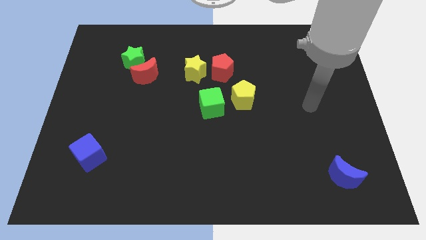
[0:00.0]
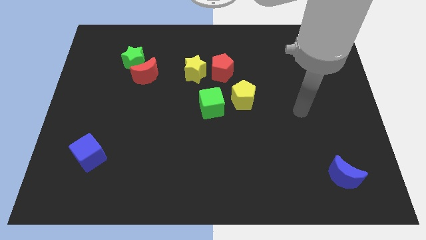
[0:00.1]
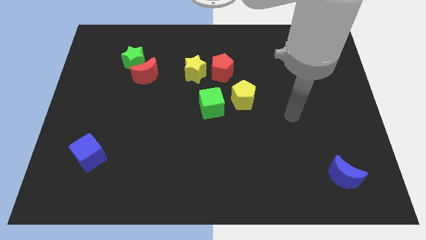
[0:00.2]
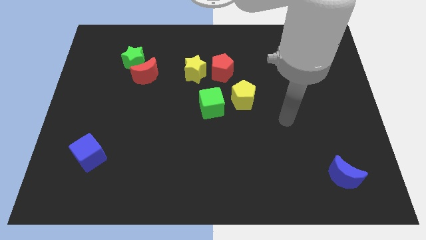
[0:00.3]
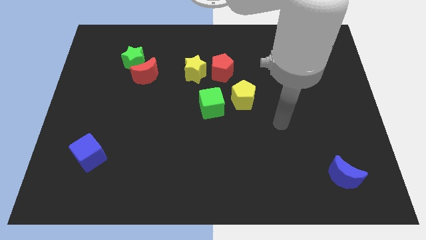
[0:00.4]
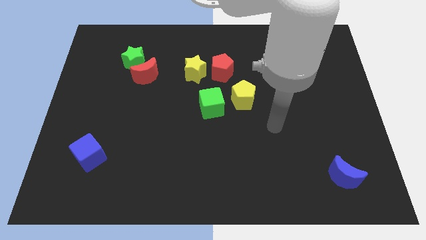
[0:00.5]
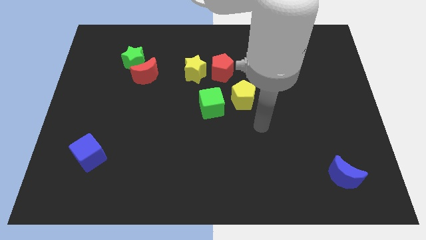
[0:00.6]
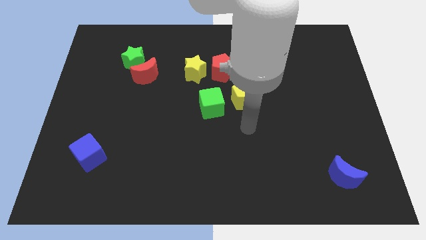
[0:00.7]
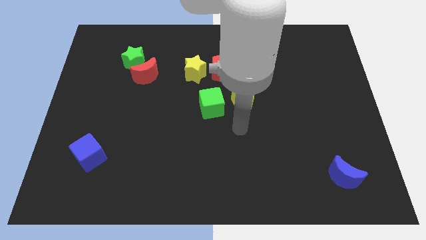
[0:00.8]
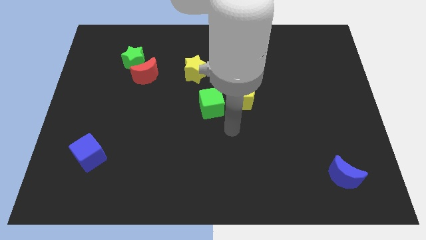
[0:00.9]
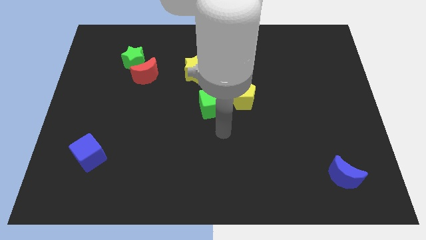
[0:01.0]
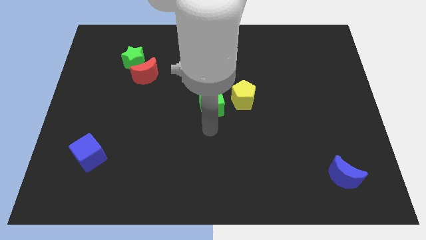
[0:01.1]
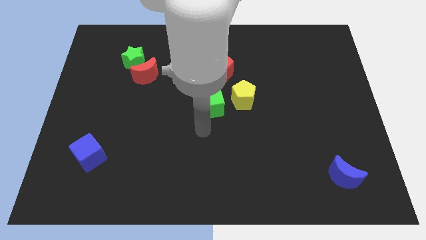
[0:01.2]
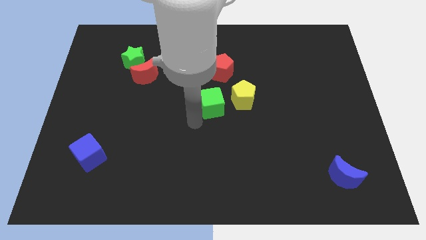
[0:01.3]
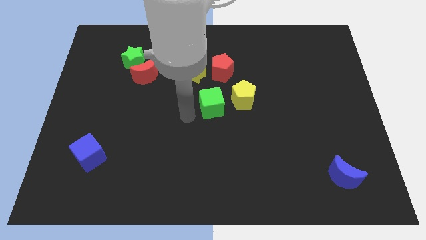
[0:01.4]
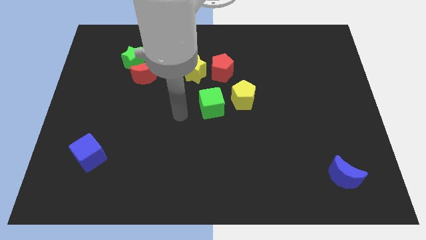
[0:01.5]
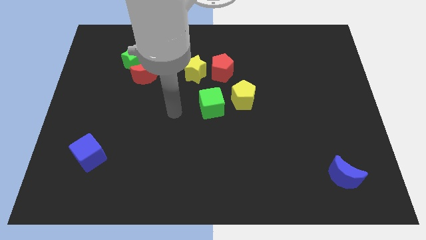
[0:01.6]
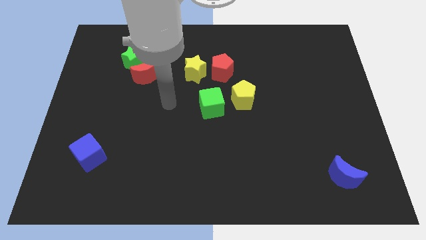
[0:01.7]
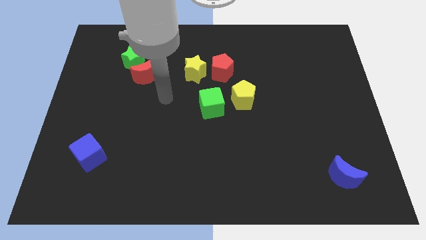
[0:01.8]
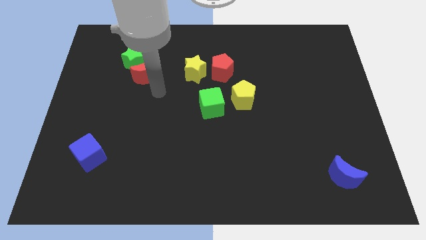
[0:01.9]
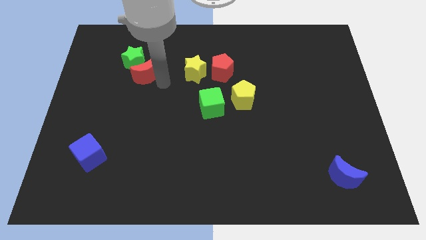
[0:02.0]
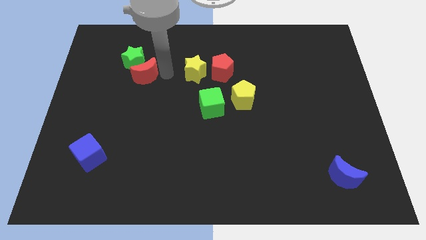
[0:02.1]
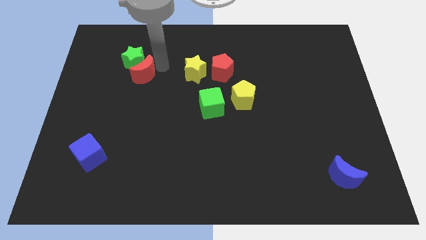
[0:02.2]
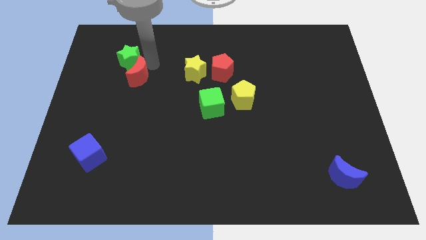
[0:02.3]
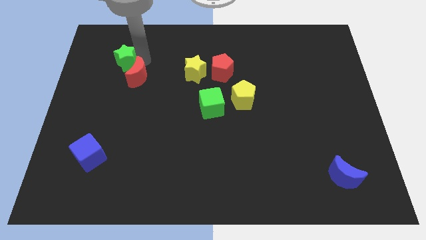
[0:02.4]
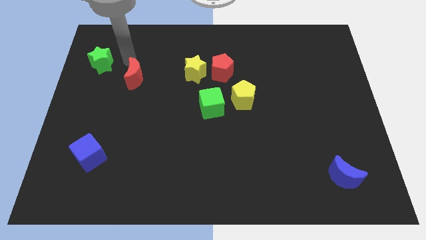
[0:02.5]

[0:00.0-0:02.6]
move the red moon away from the green star

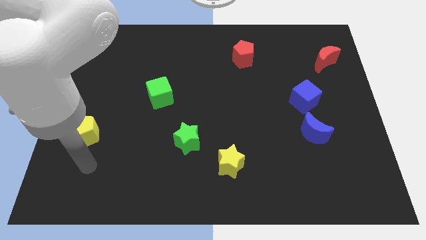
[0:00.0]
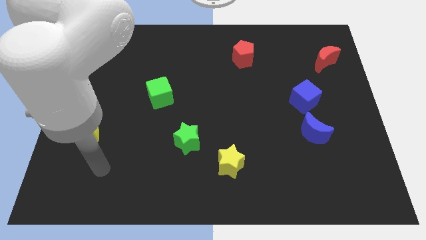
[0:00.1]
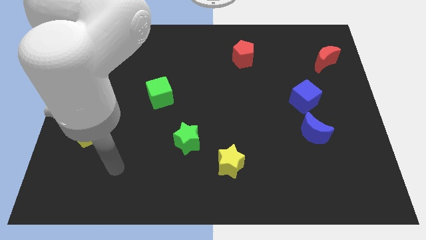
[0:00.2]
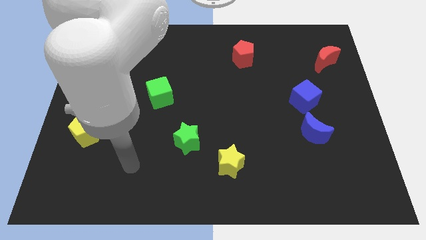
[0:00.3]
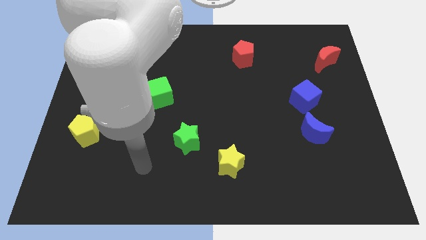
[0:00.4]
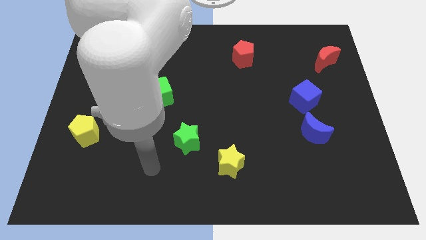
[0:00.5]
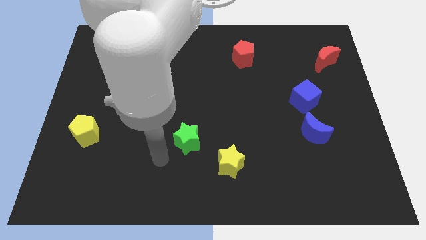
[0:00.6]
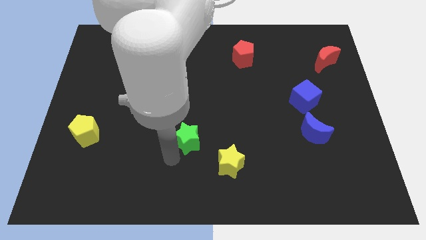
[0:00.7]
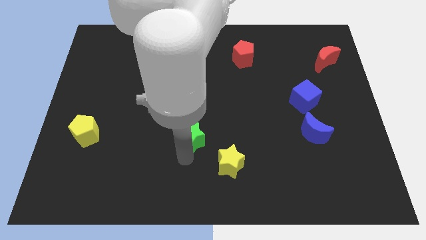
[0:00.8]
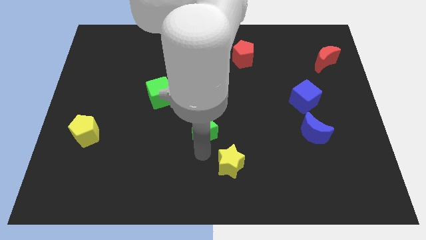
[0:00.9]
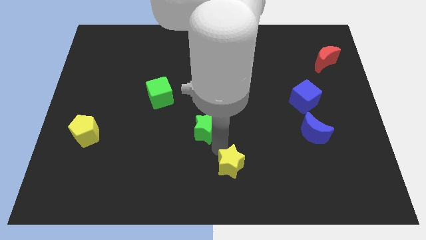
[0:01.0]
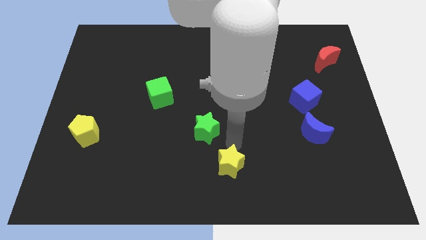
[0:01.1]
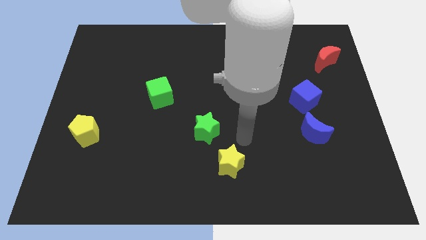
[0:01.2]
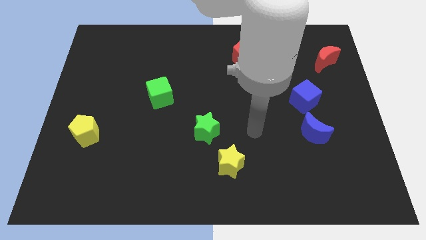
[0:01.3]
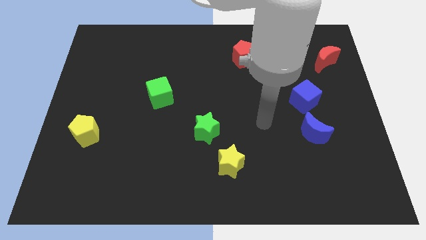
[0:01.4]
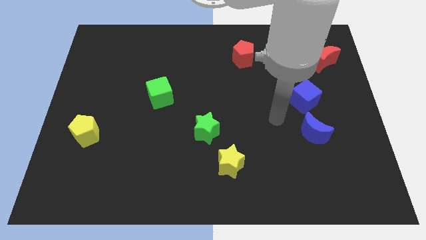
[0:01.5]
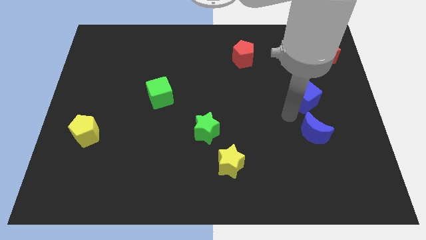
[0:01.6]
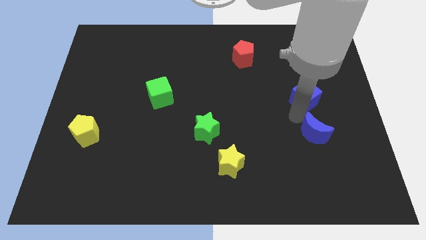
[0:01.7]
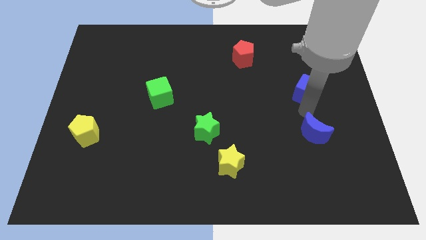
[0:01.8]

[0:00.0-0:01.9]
separate the blue moon from the blue cube

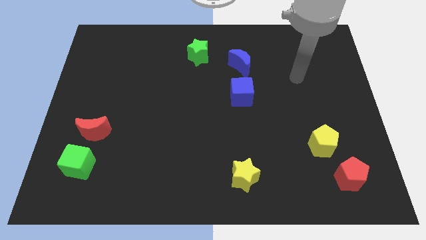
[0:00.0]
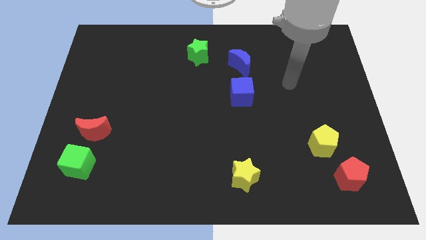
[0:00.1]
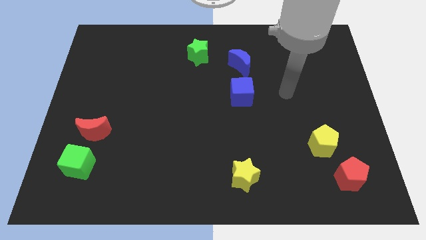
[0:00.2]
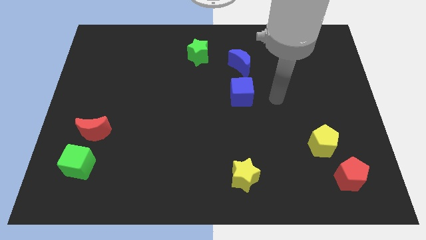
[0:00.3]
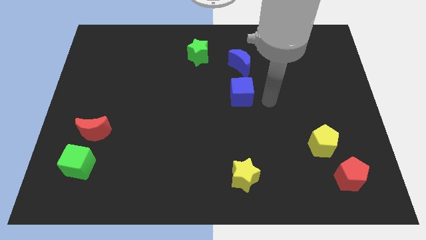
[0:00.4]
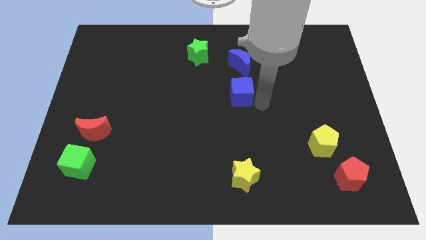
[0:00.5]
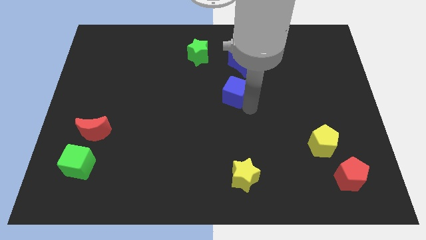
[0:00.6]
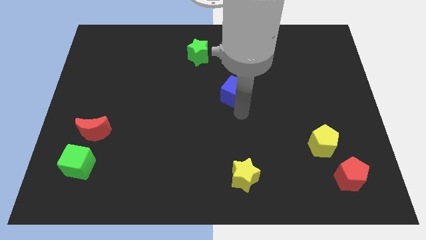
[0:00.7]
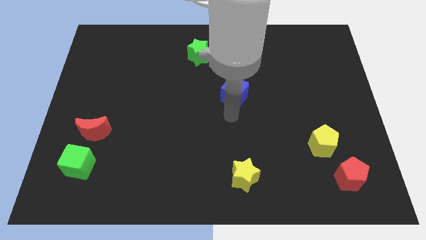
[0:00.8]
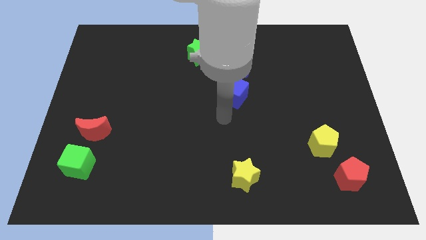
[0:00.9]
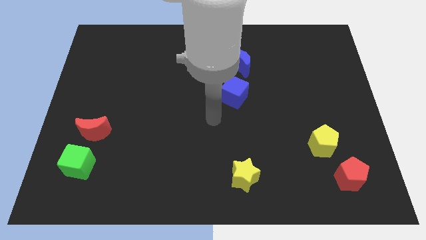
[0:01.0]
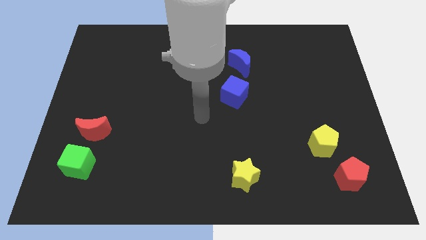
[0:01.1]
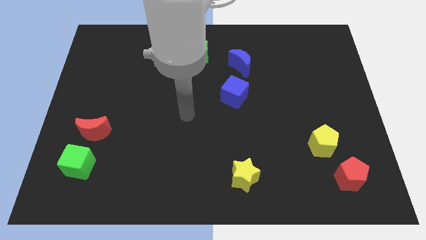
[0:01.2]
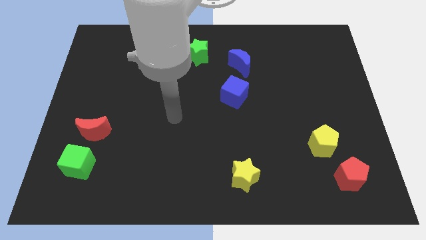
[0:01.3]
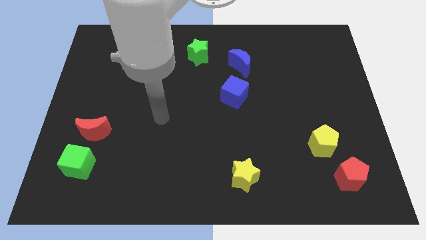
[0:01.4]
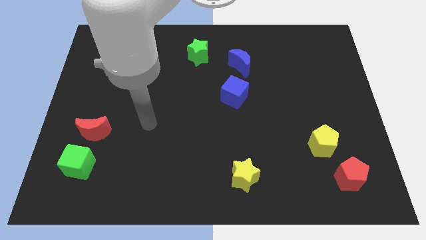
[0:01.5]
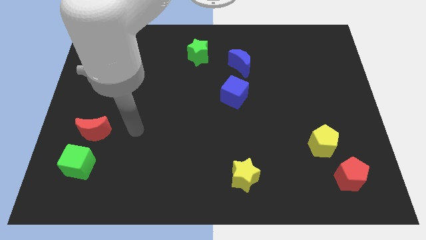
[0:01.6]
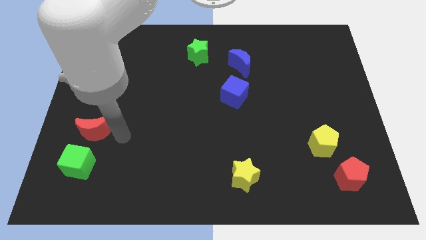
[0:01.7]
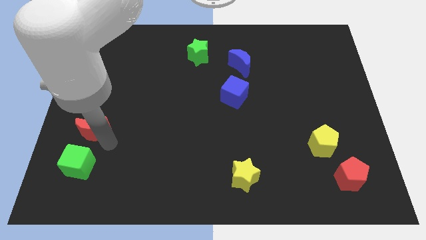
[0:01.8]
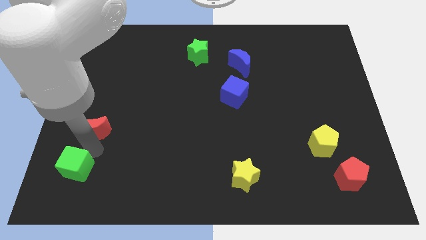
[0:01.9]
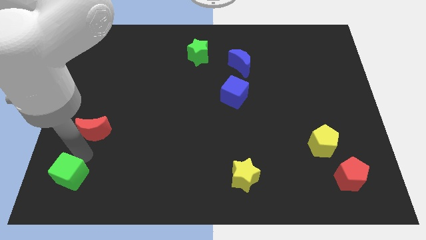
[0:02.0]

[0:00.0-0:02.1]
separate the red moon from the green cube

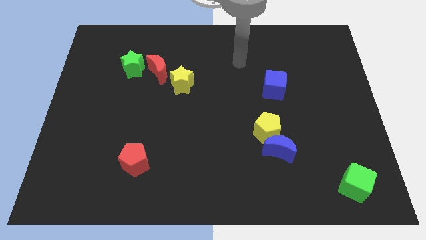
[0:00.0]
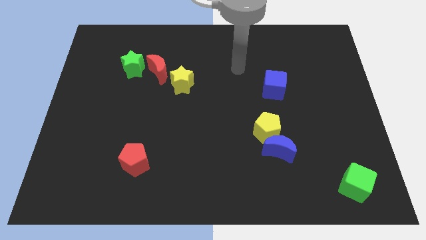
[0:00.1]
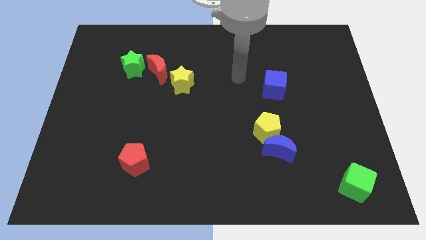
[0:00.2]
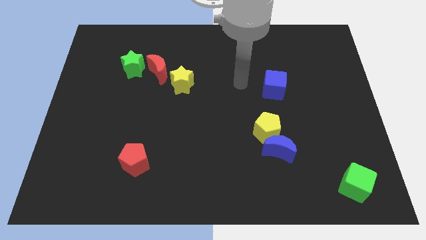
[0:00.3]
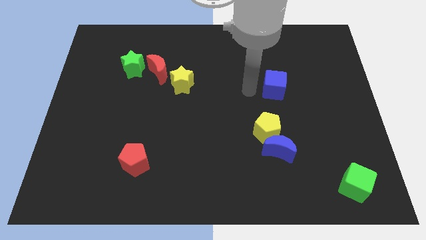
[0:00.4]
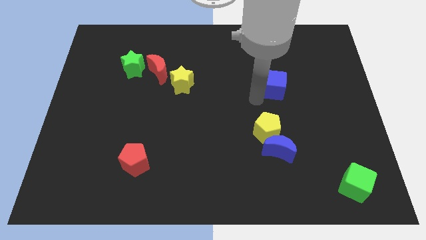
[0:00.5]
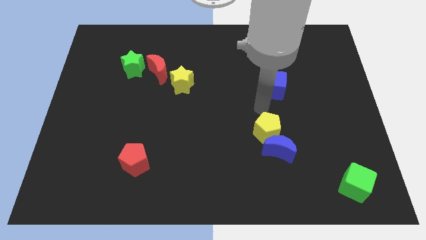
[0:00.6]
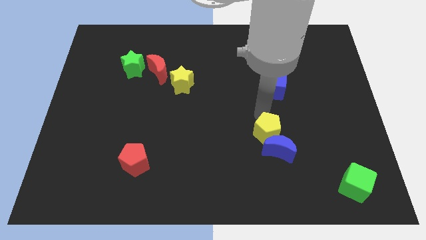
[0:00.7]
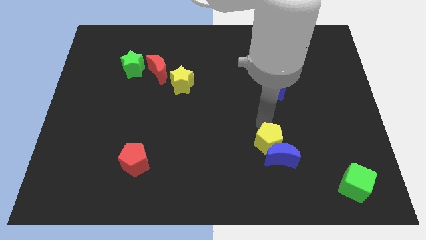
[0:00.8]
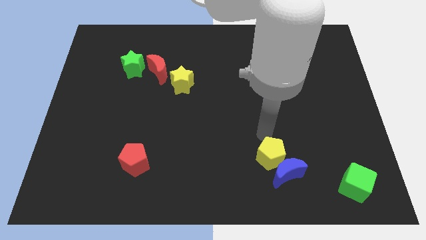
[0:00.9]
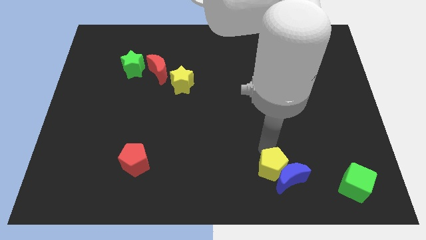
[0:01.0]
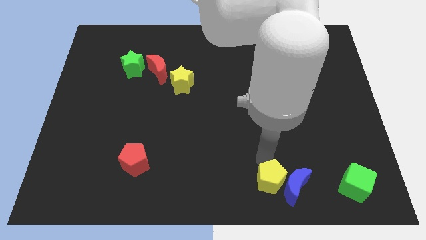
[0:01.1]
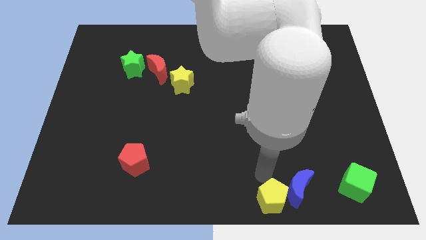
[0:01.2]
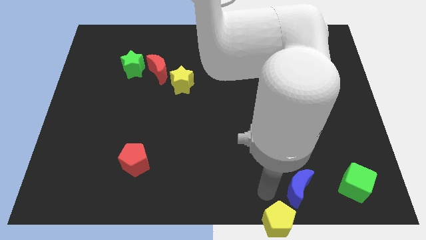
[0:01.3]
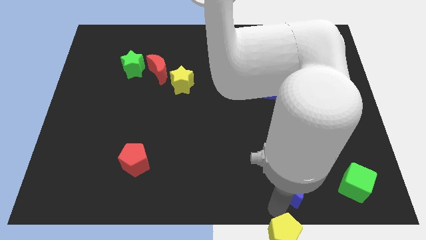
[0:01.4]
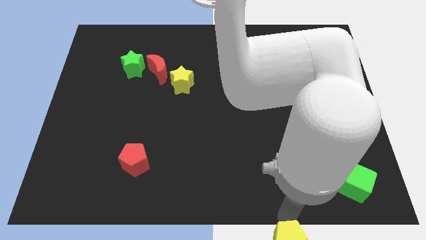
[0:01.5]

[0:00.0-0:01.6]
pull the blue moon apart from the yellow pentagon

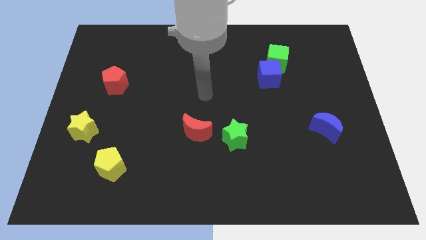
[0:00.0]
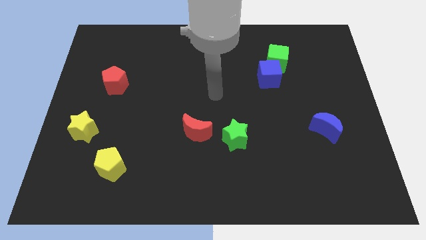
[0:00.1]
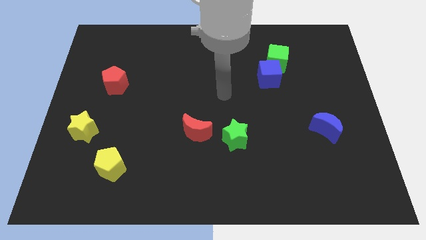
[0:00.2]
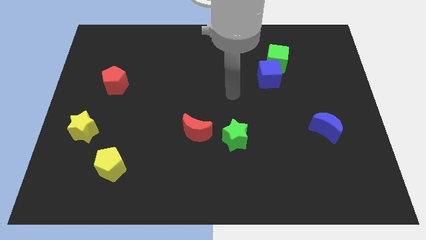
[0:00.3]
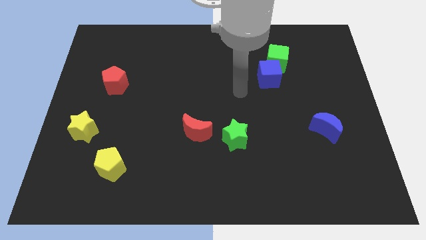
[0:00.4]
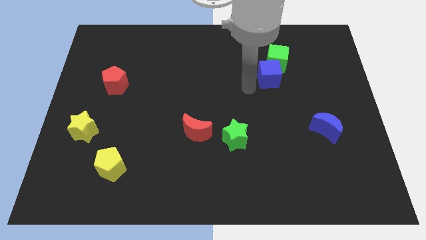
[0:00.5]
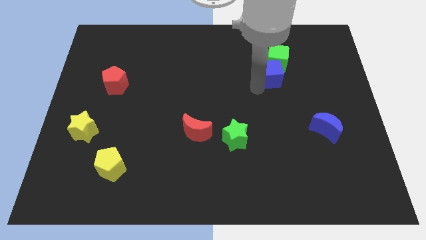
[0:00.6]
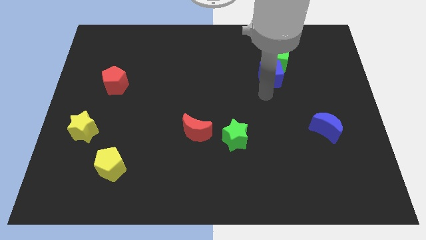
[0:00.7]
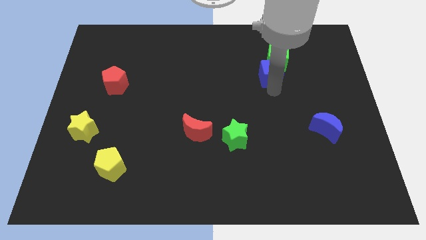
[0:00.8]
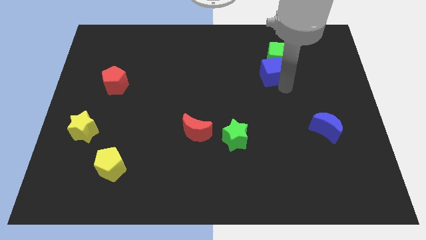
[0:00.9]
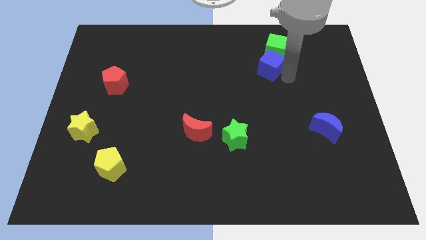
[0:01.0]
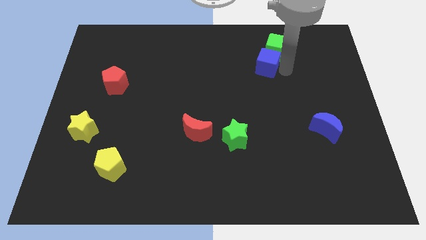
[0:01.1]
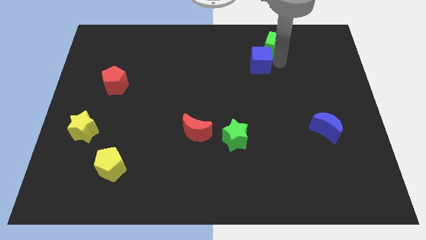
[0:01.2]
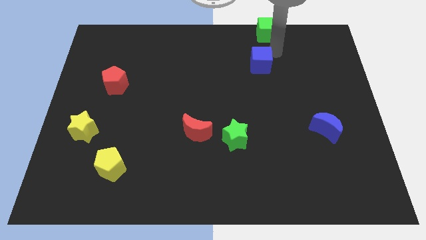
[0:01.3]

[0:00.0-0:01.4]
move the blue cube away from the green cube
